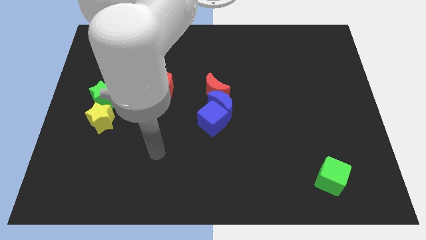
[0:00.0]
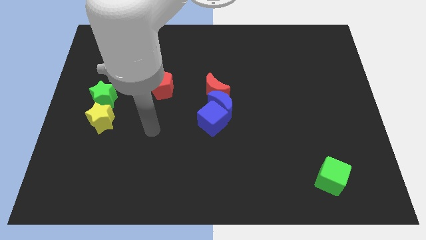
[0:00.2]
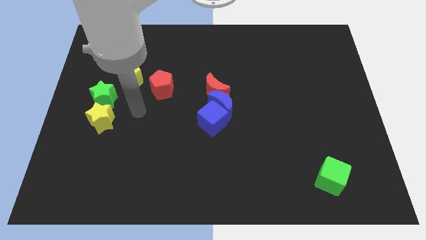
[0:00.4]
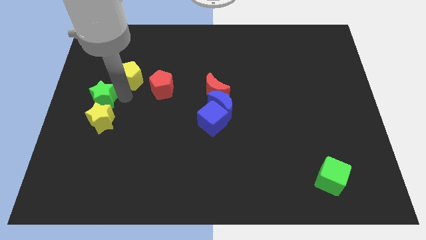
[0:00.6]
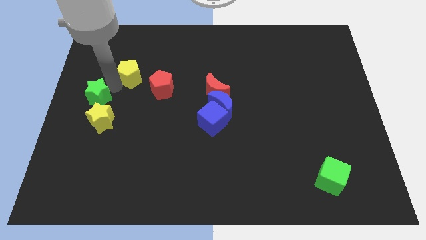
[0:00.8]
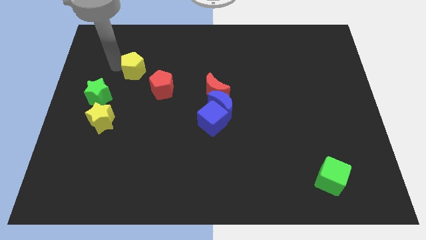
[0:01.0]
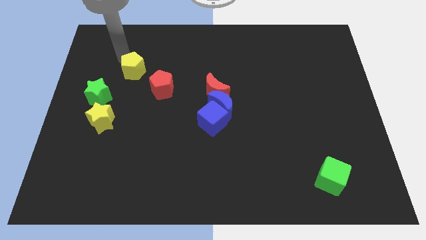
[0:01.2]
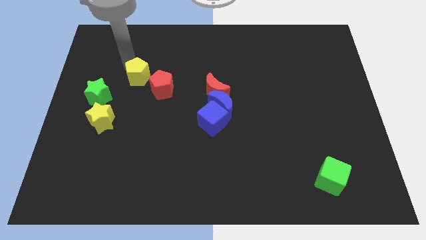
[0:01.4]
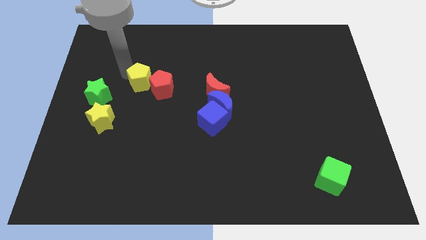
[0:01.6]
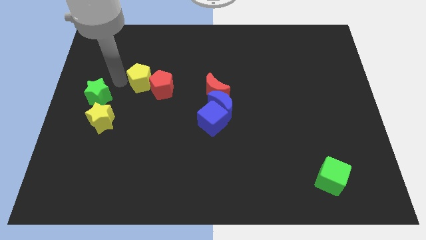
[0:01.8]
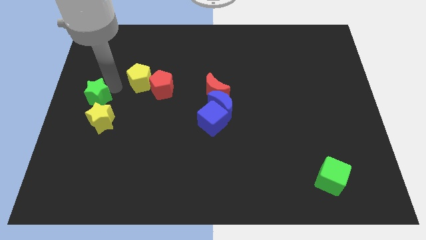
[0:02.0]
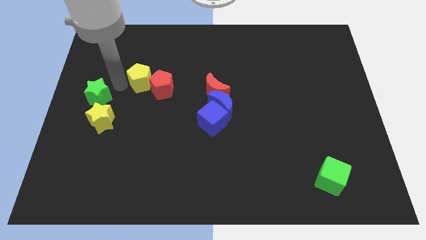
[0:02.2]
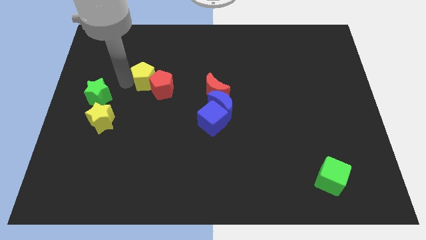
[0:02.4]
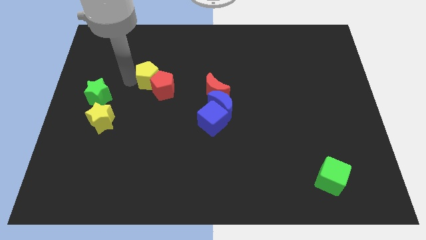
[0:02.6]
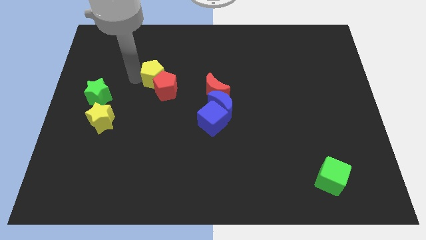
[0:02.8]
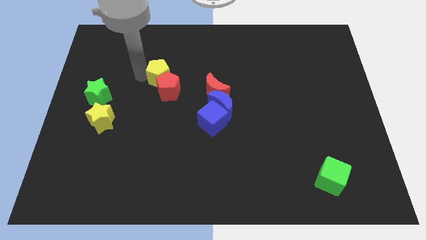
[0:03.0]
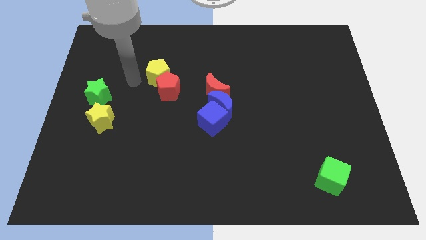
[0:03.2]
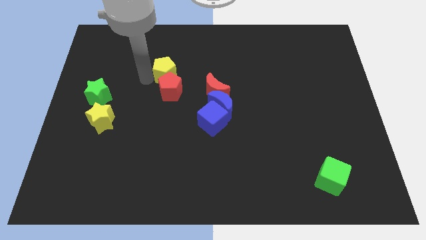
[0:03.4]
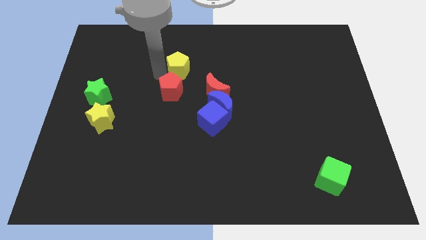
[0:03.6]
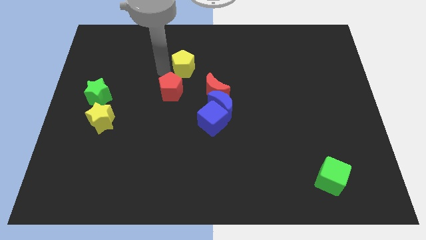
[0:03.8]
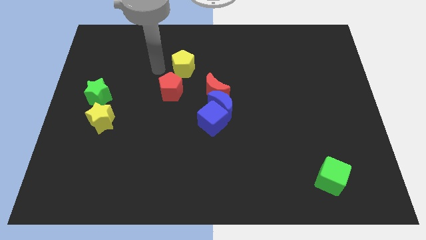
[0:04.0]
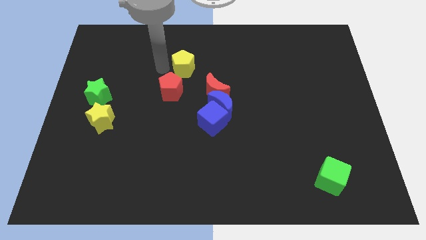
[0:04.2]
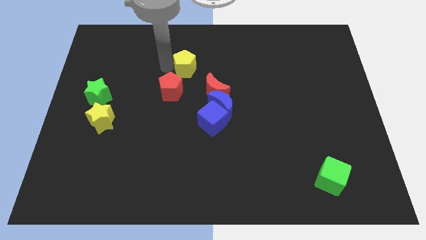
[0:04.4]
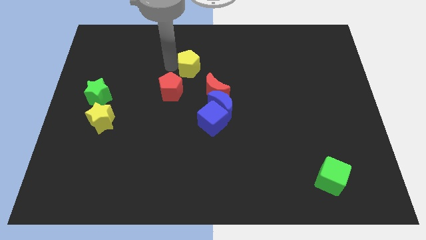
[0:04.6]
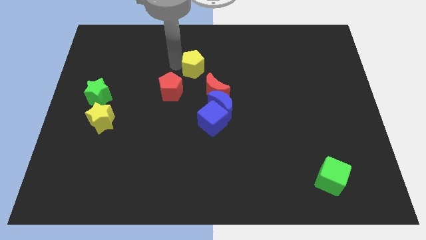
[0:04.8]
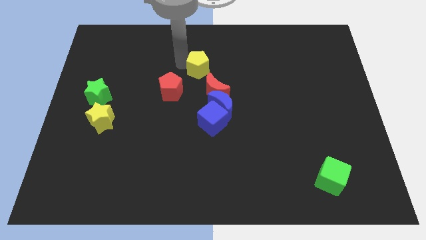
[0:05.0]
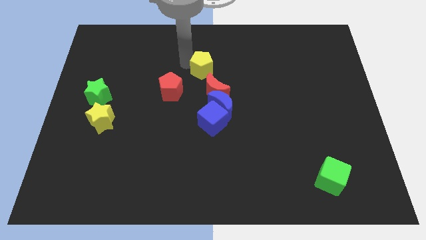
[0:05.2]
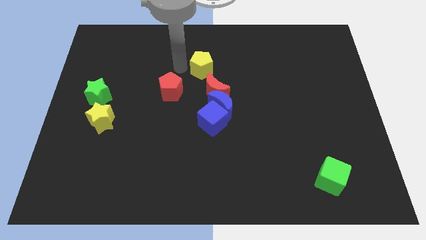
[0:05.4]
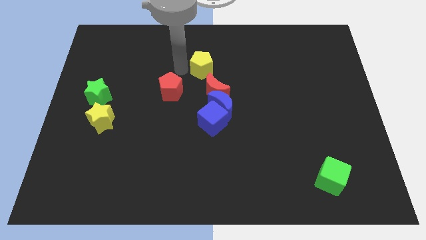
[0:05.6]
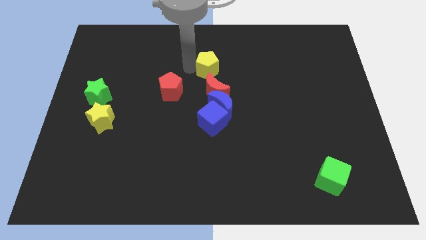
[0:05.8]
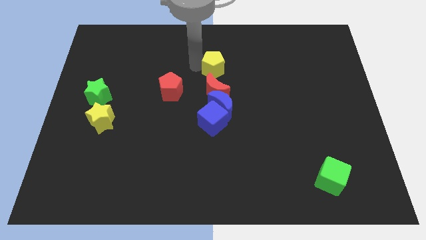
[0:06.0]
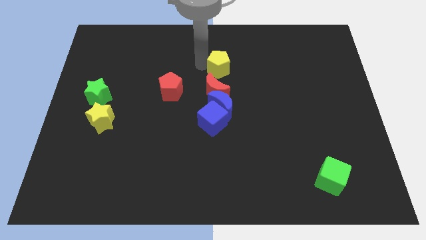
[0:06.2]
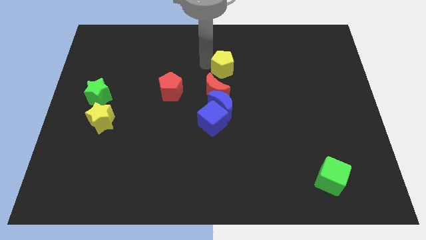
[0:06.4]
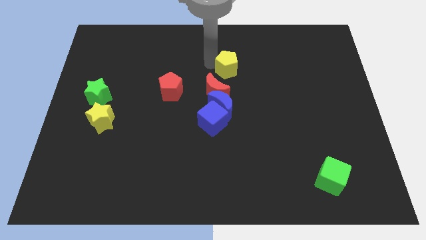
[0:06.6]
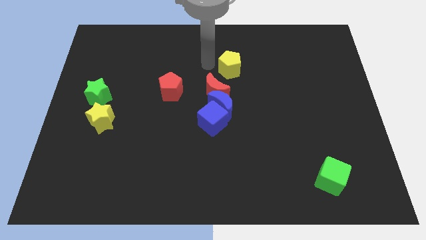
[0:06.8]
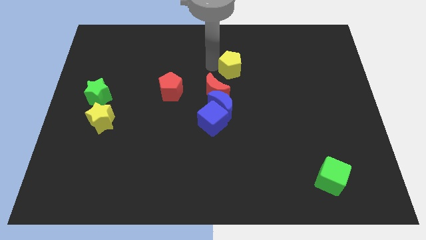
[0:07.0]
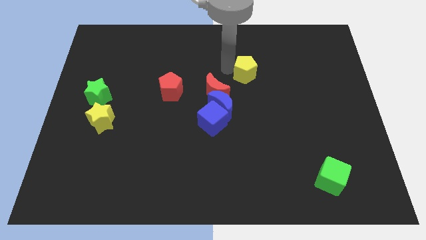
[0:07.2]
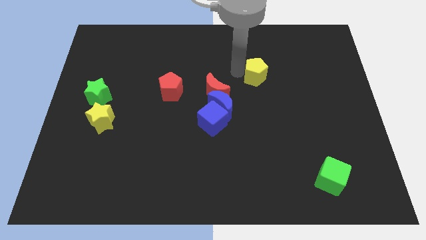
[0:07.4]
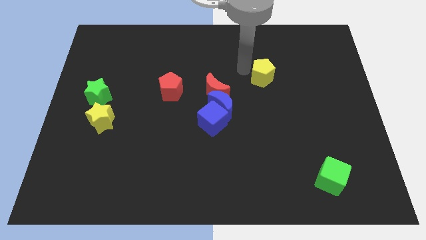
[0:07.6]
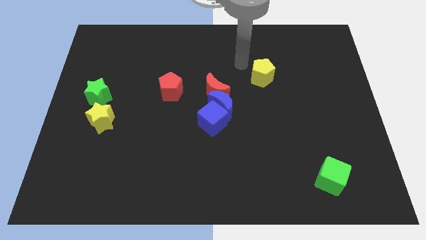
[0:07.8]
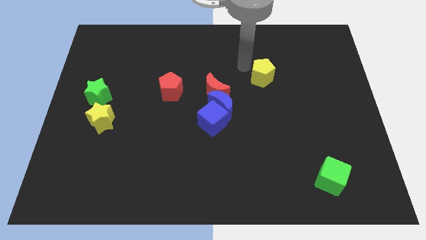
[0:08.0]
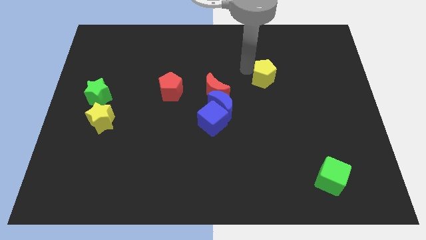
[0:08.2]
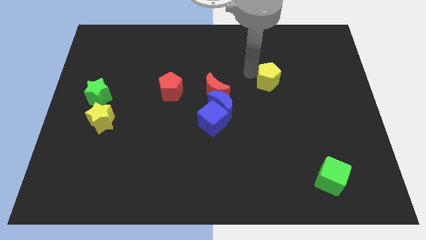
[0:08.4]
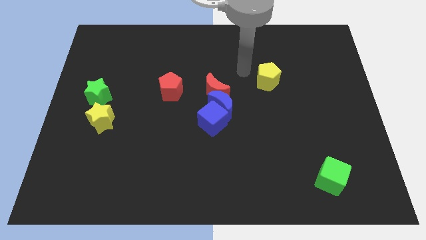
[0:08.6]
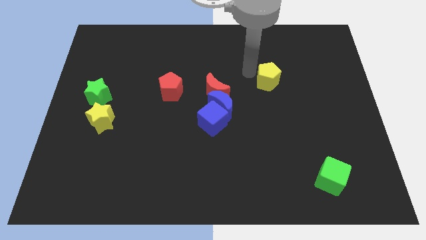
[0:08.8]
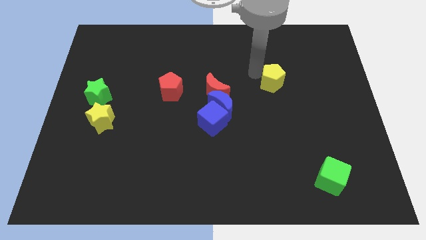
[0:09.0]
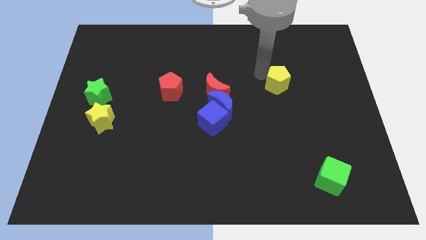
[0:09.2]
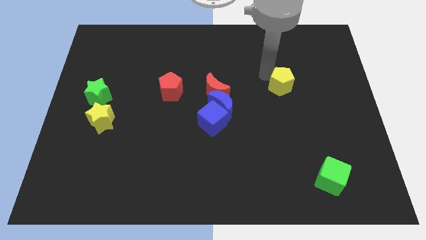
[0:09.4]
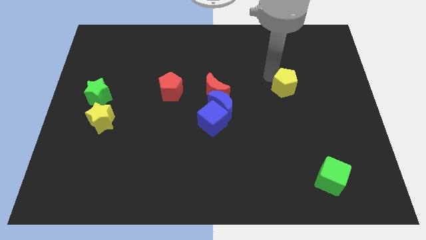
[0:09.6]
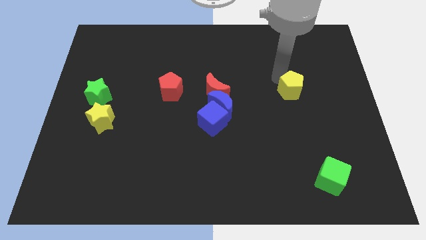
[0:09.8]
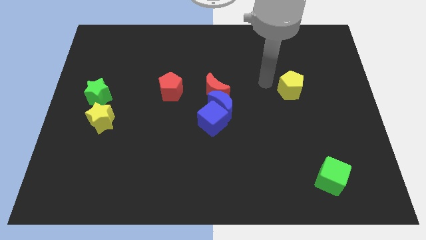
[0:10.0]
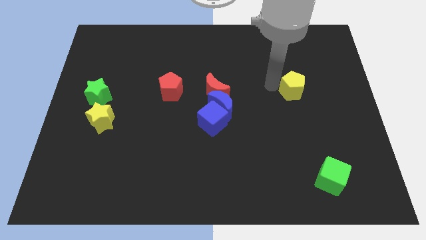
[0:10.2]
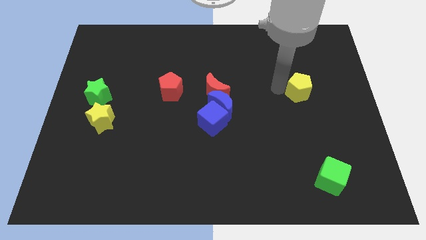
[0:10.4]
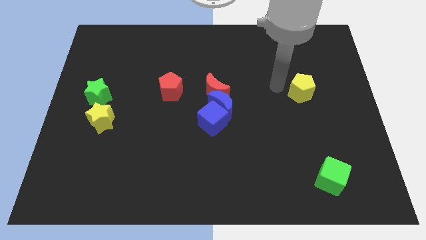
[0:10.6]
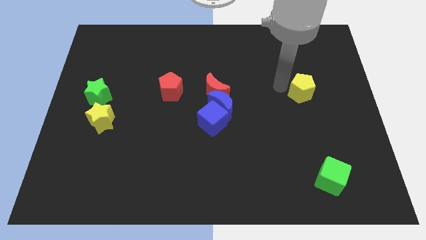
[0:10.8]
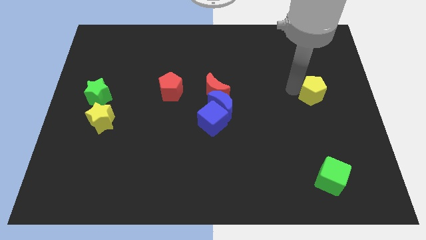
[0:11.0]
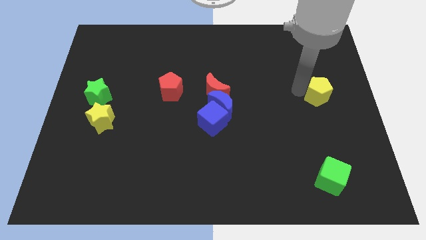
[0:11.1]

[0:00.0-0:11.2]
push the yellow pentagon to the right side

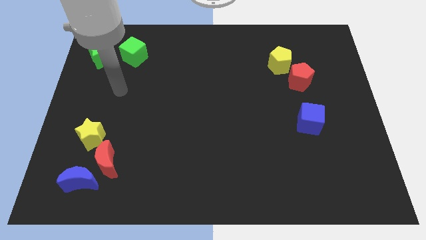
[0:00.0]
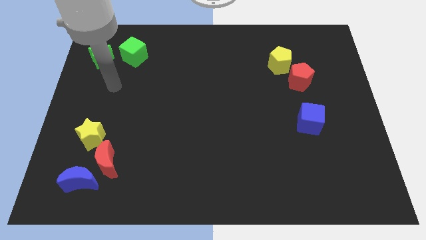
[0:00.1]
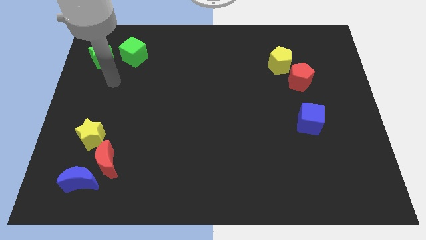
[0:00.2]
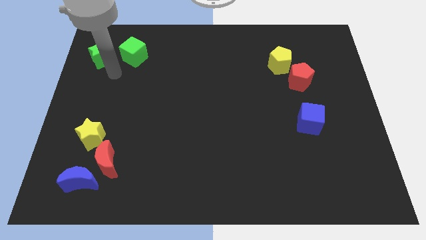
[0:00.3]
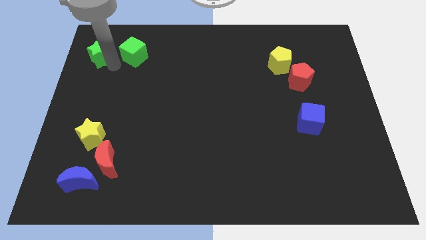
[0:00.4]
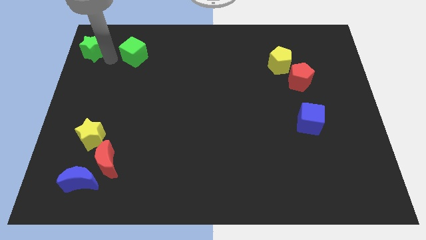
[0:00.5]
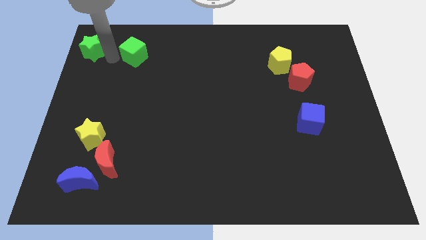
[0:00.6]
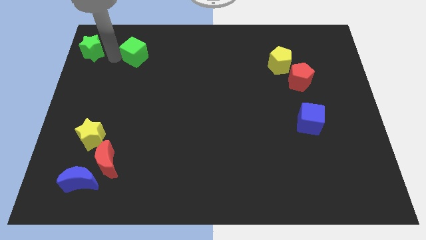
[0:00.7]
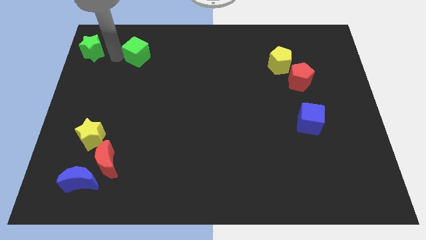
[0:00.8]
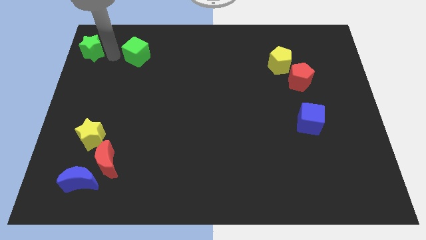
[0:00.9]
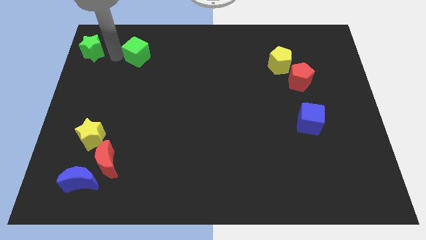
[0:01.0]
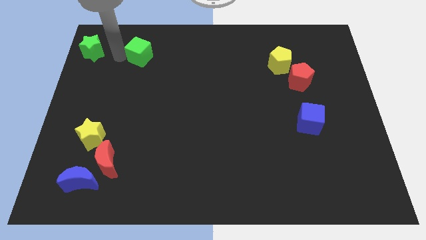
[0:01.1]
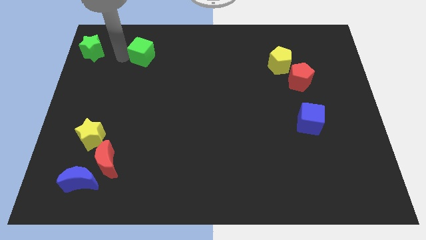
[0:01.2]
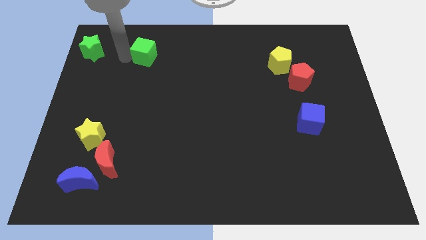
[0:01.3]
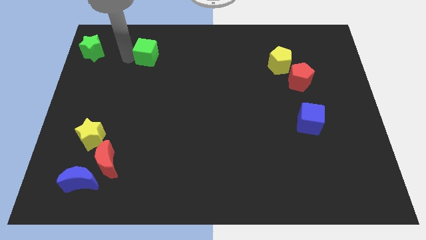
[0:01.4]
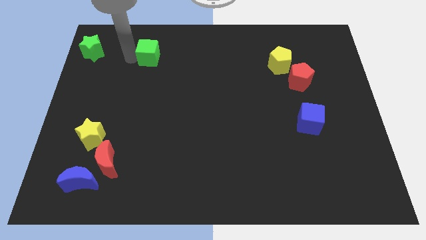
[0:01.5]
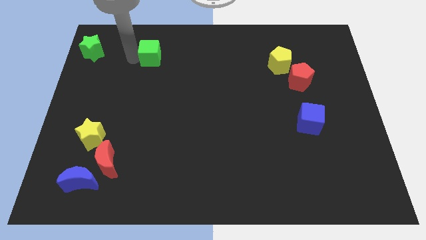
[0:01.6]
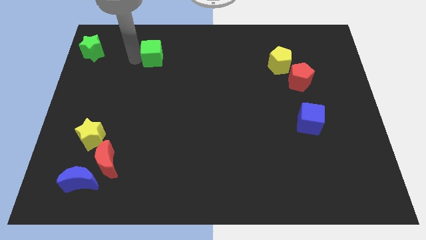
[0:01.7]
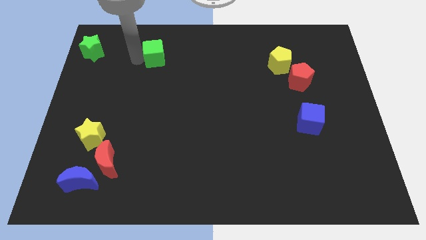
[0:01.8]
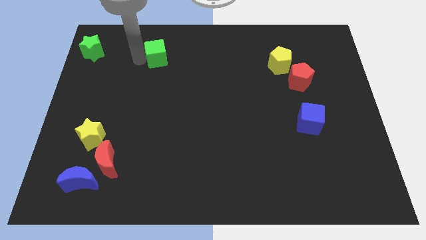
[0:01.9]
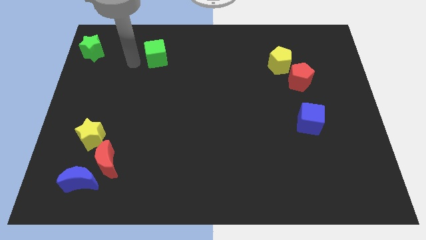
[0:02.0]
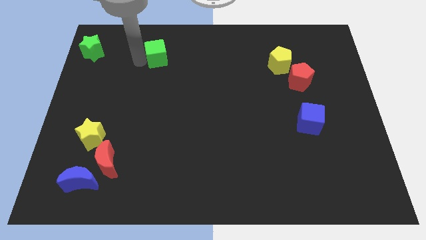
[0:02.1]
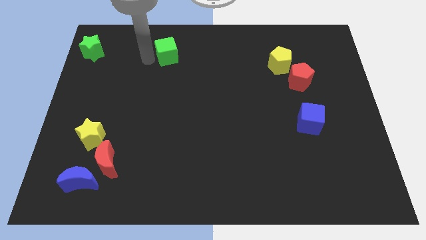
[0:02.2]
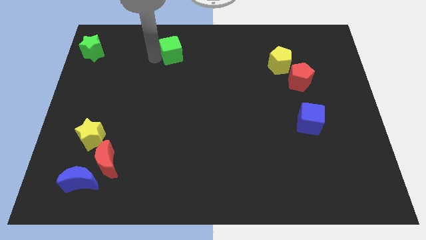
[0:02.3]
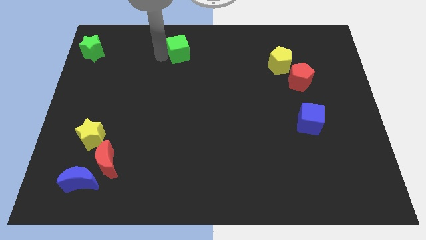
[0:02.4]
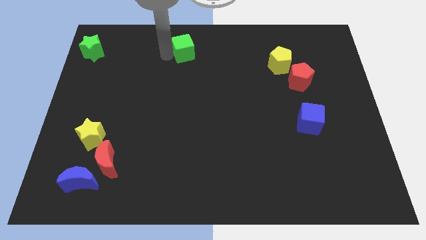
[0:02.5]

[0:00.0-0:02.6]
push the green cube to the top side
